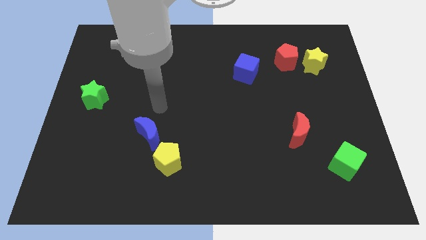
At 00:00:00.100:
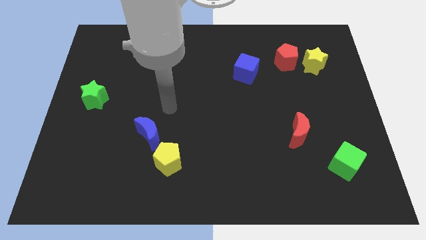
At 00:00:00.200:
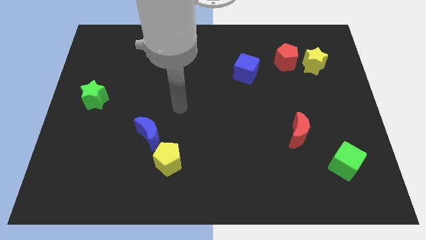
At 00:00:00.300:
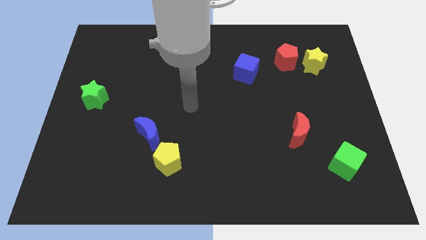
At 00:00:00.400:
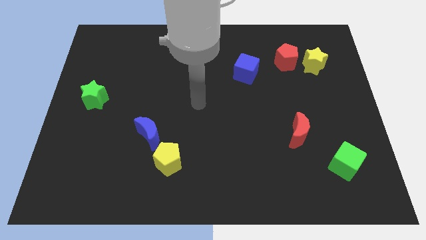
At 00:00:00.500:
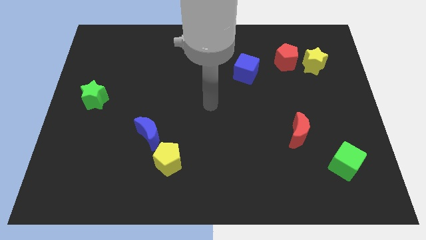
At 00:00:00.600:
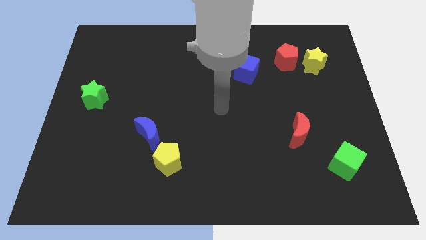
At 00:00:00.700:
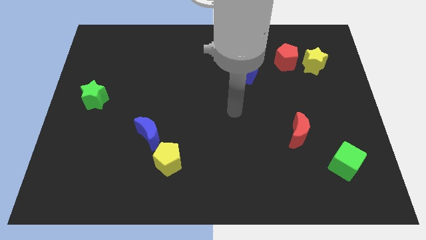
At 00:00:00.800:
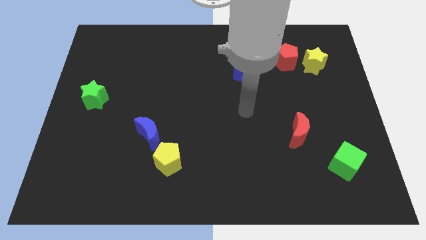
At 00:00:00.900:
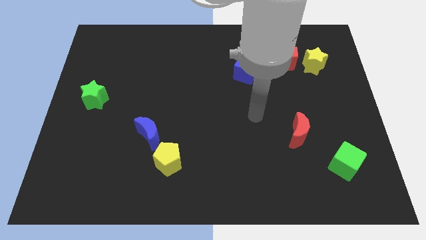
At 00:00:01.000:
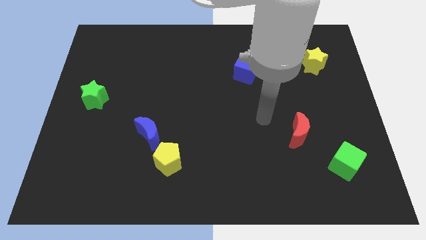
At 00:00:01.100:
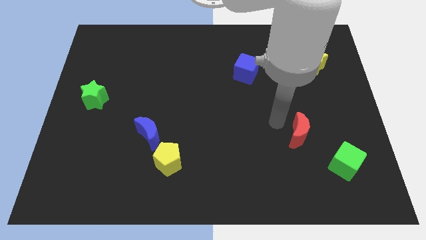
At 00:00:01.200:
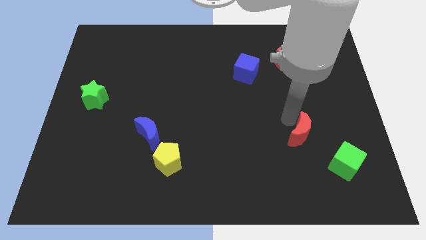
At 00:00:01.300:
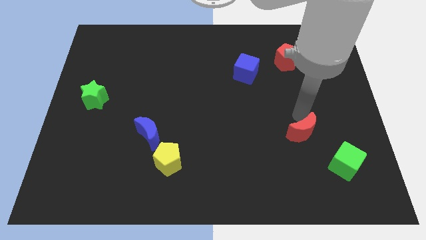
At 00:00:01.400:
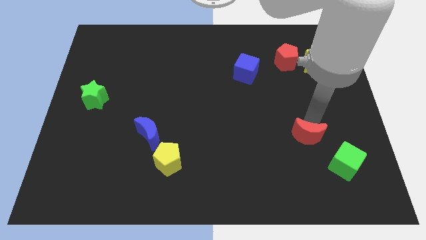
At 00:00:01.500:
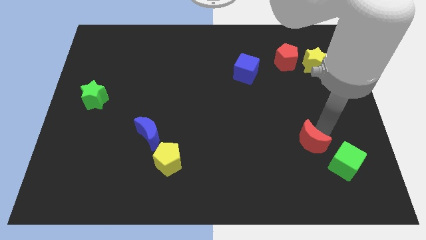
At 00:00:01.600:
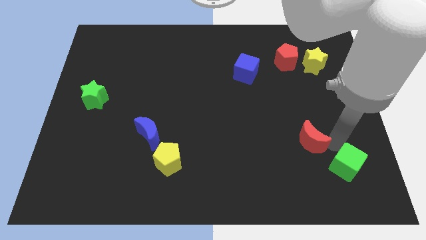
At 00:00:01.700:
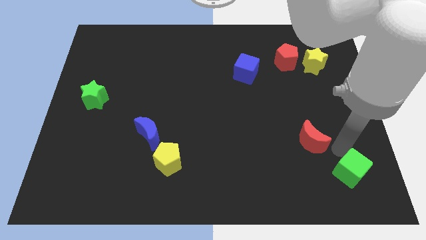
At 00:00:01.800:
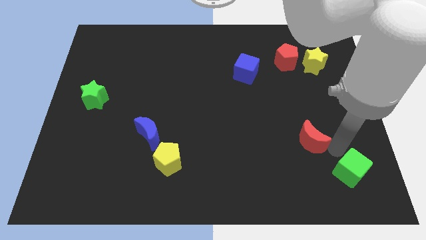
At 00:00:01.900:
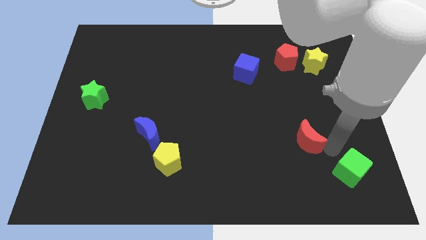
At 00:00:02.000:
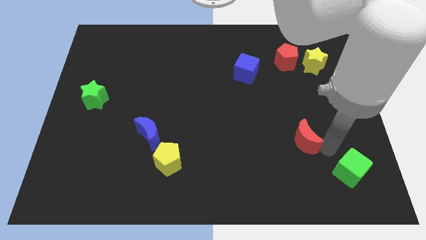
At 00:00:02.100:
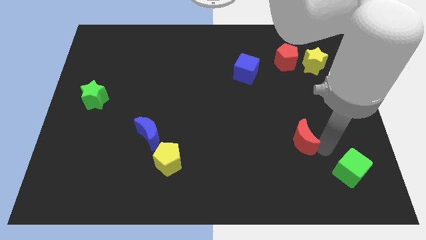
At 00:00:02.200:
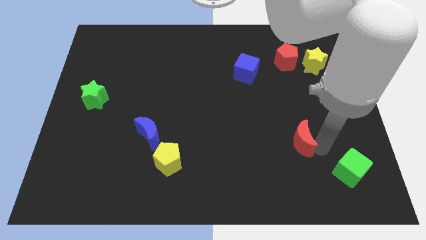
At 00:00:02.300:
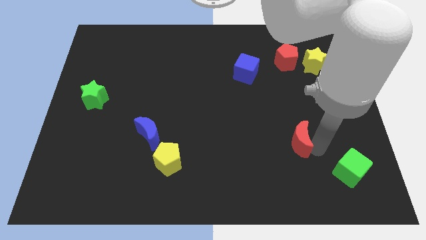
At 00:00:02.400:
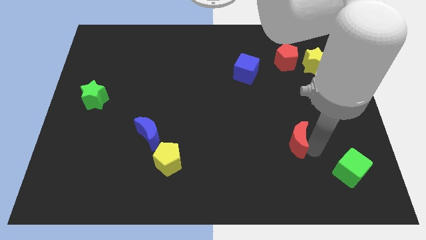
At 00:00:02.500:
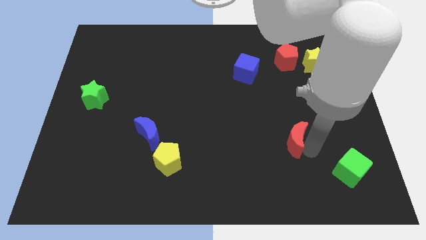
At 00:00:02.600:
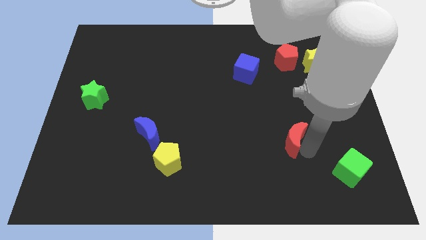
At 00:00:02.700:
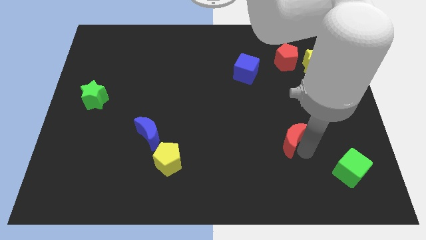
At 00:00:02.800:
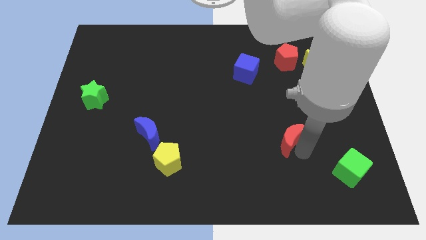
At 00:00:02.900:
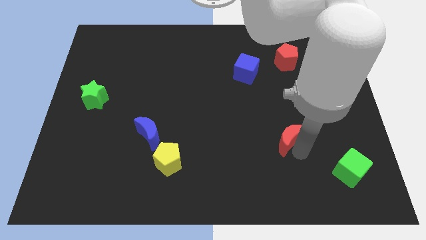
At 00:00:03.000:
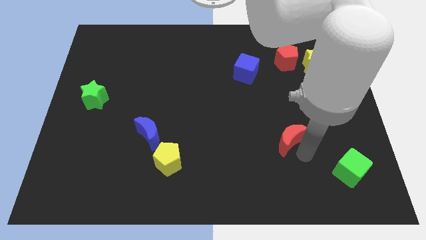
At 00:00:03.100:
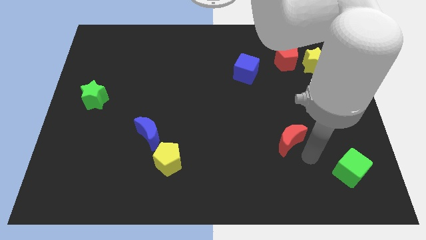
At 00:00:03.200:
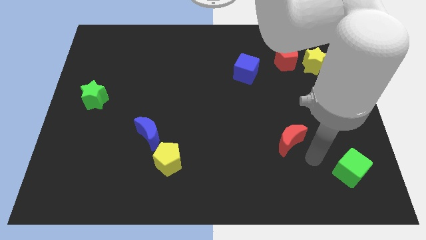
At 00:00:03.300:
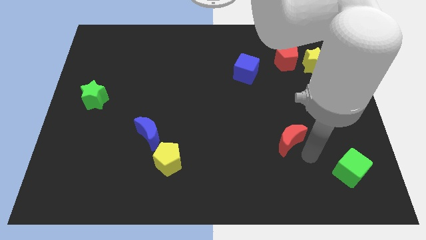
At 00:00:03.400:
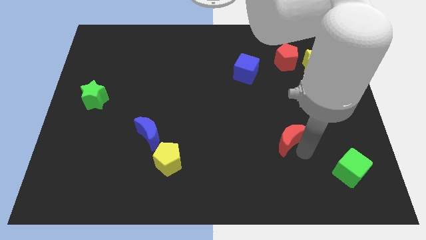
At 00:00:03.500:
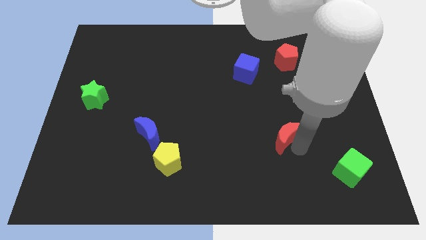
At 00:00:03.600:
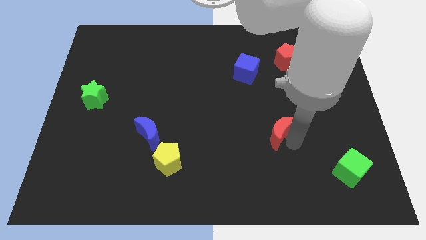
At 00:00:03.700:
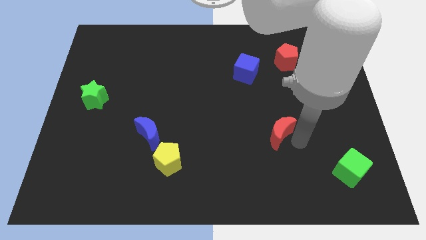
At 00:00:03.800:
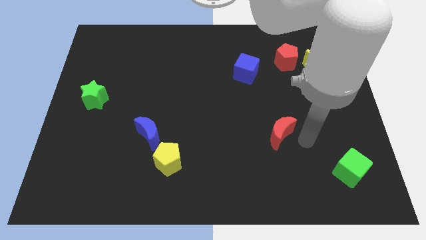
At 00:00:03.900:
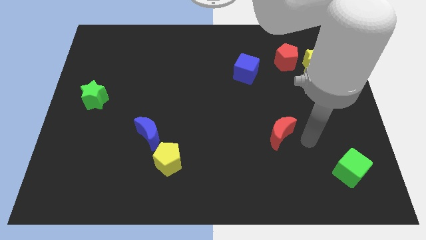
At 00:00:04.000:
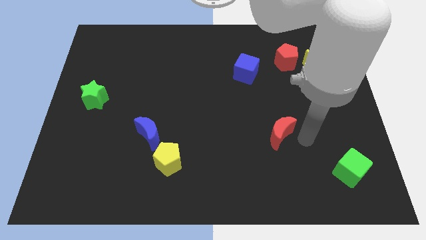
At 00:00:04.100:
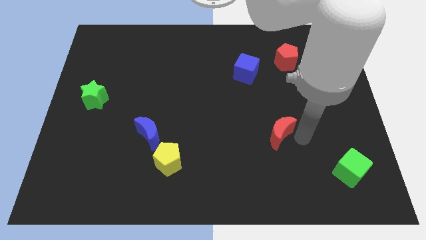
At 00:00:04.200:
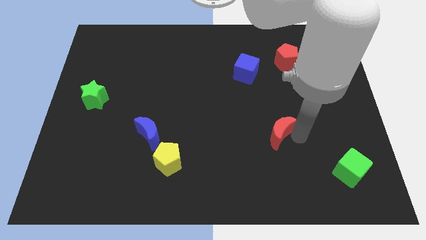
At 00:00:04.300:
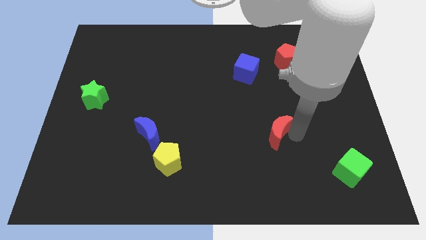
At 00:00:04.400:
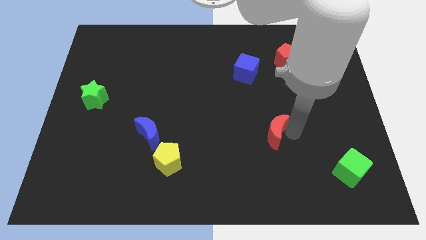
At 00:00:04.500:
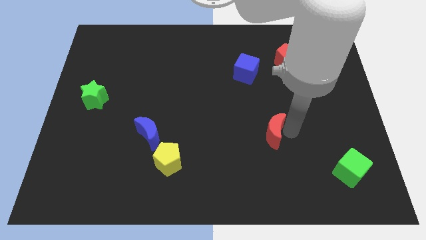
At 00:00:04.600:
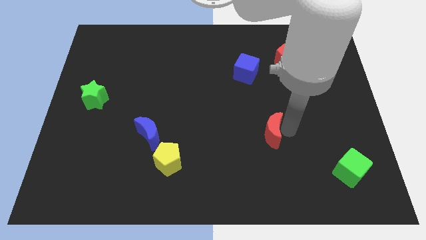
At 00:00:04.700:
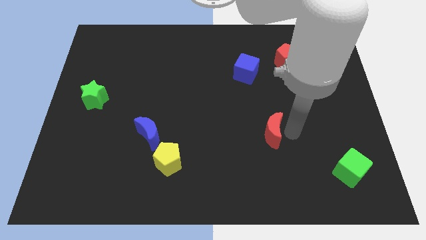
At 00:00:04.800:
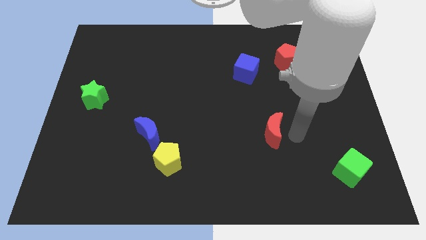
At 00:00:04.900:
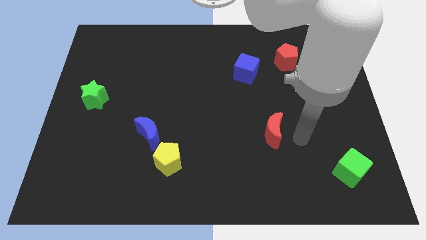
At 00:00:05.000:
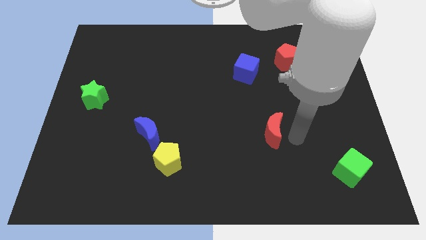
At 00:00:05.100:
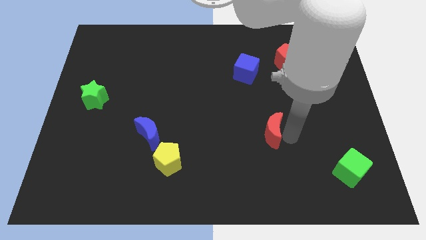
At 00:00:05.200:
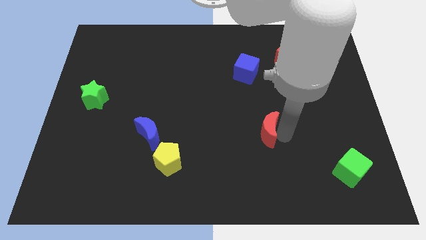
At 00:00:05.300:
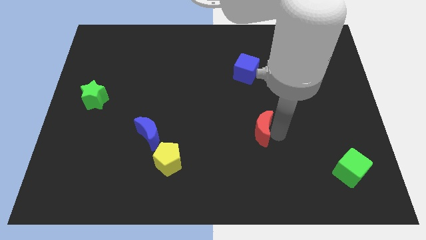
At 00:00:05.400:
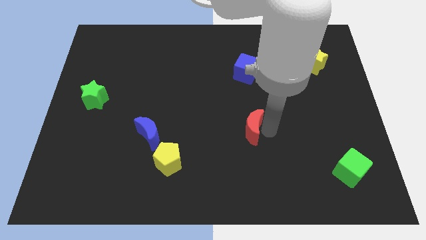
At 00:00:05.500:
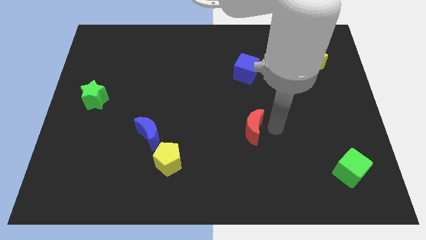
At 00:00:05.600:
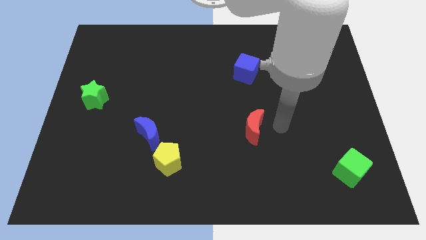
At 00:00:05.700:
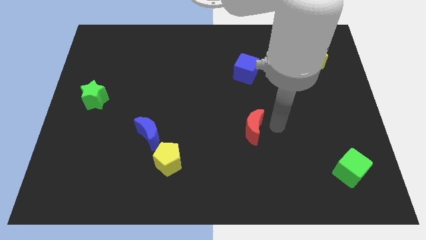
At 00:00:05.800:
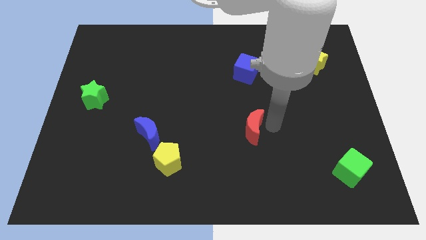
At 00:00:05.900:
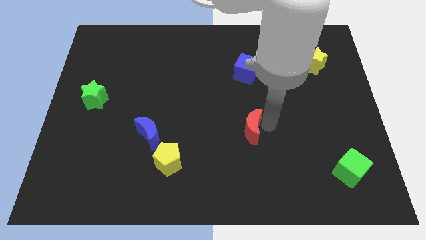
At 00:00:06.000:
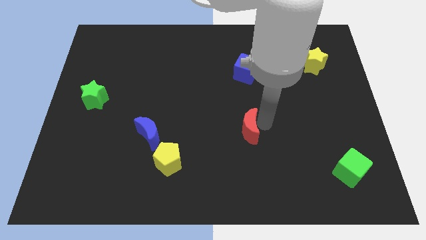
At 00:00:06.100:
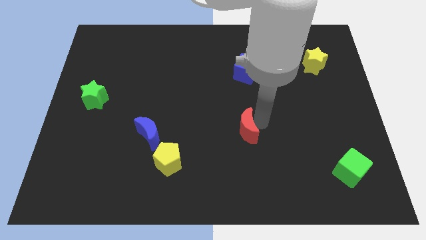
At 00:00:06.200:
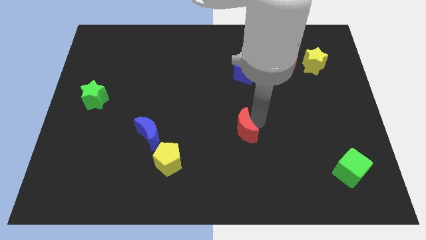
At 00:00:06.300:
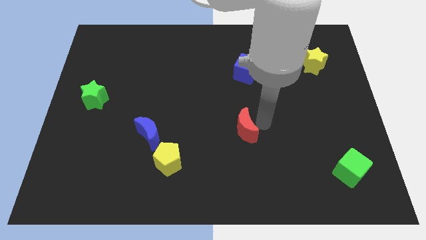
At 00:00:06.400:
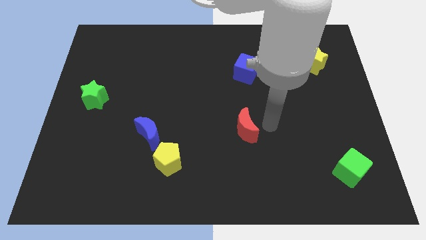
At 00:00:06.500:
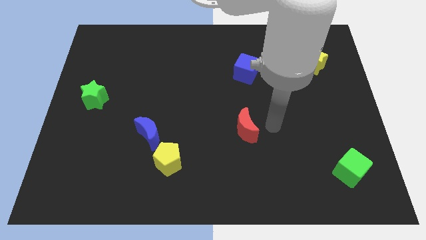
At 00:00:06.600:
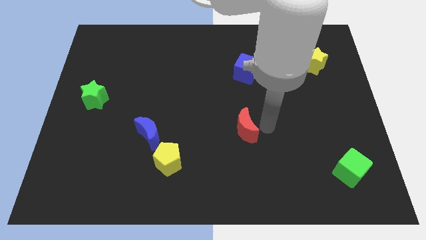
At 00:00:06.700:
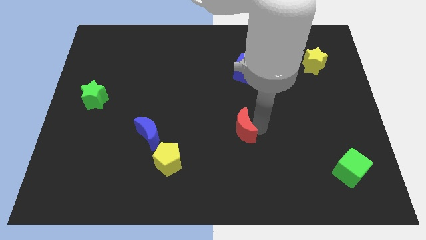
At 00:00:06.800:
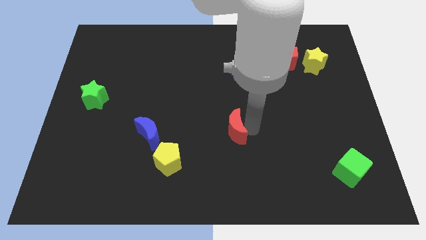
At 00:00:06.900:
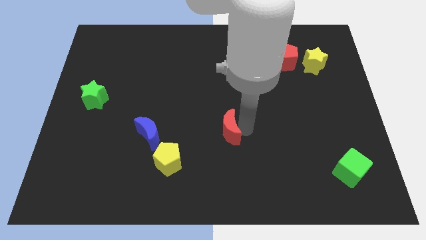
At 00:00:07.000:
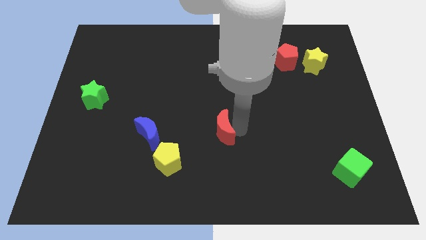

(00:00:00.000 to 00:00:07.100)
slide the red moon right of the blue moon
